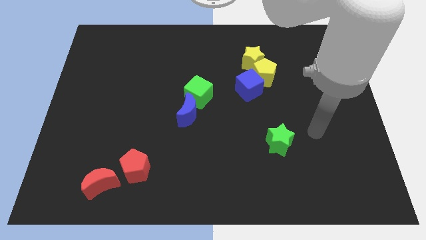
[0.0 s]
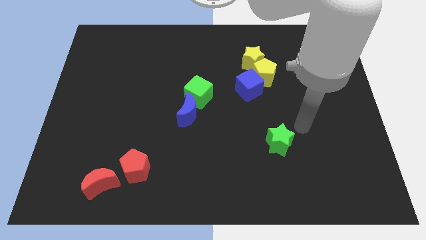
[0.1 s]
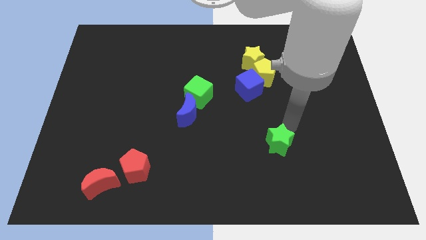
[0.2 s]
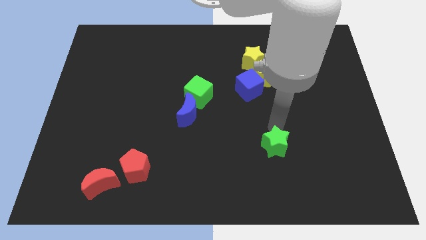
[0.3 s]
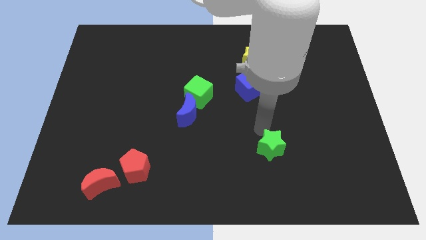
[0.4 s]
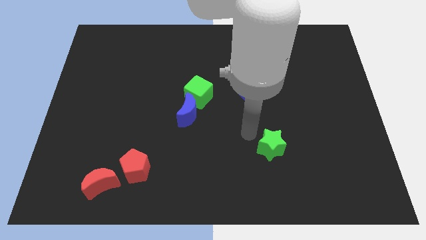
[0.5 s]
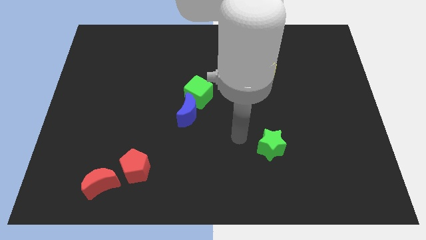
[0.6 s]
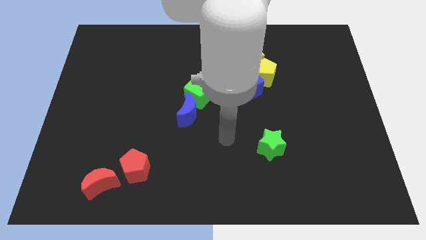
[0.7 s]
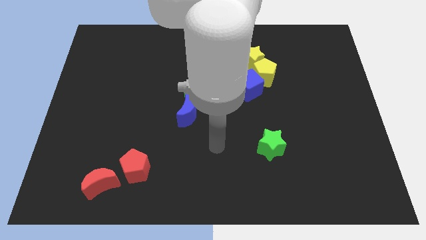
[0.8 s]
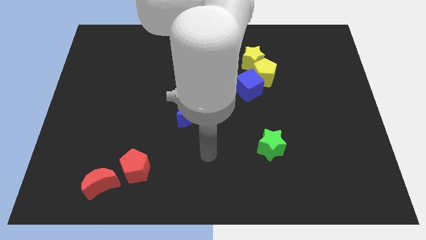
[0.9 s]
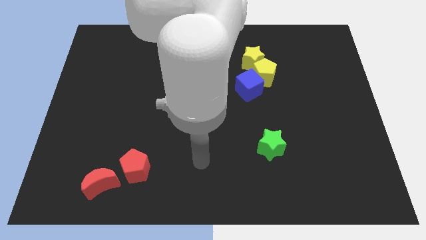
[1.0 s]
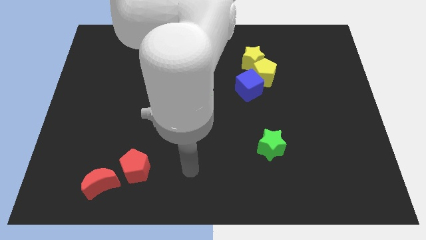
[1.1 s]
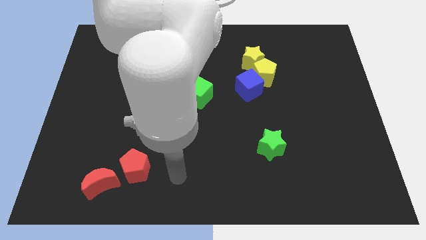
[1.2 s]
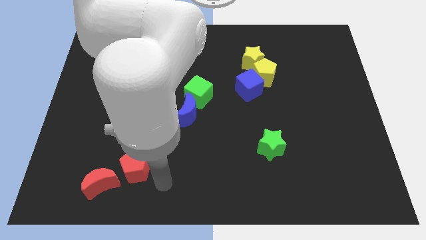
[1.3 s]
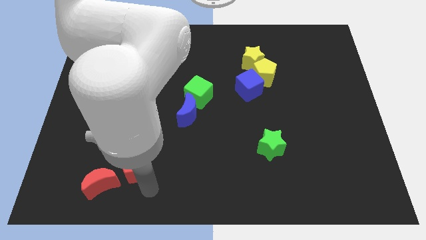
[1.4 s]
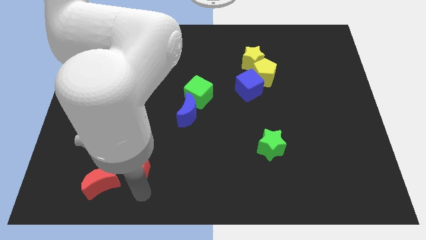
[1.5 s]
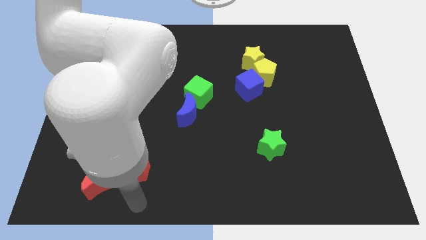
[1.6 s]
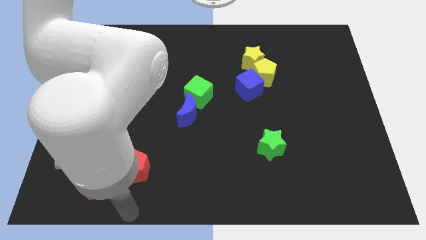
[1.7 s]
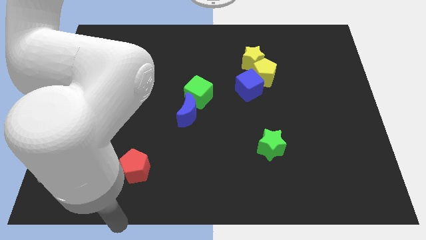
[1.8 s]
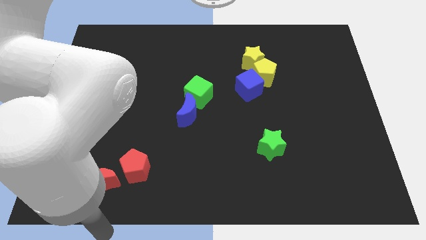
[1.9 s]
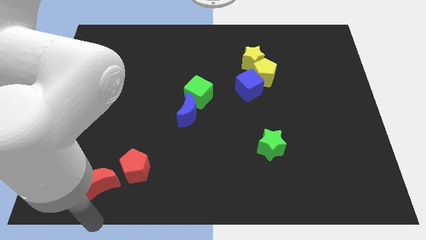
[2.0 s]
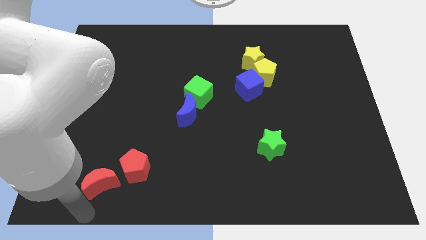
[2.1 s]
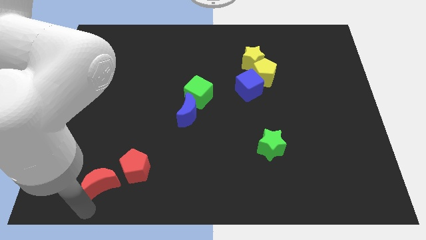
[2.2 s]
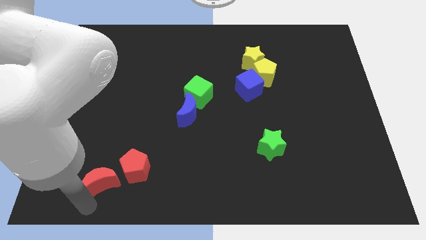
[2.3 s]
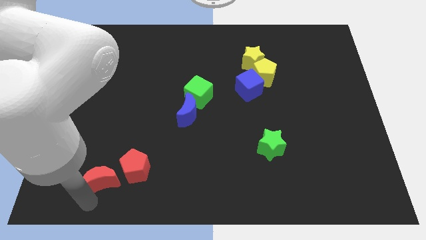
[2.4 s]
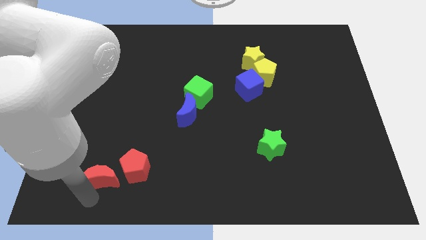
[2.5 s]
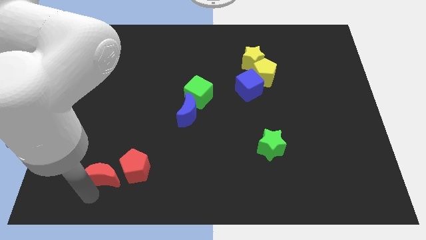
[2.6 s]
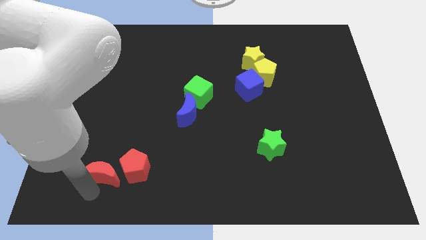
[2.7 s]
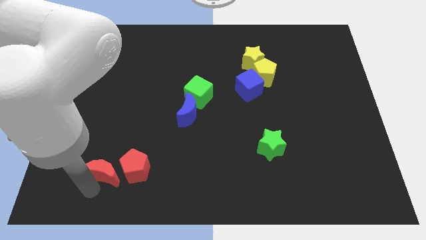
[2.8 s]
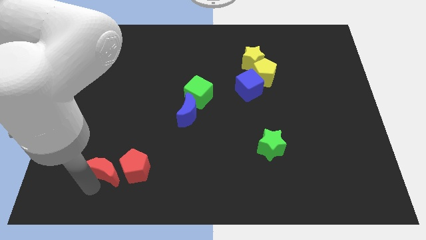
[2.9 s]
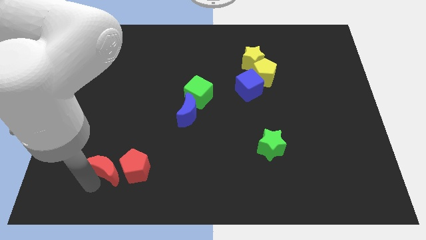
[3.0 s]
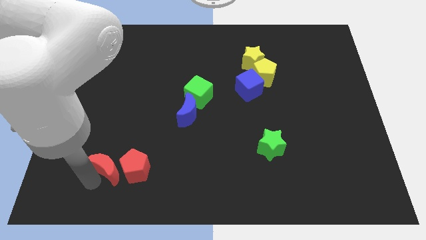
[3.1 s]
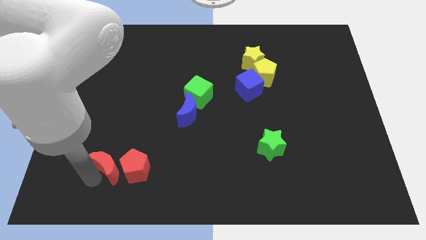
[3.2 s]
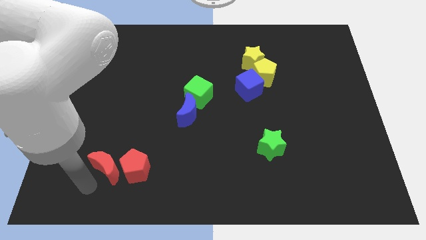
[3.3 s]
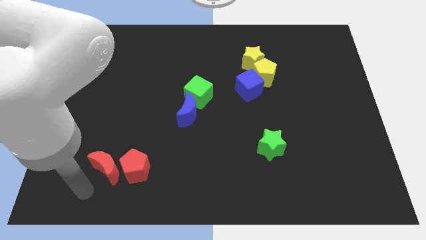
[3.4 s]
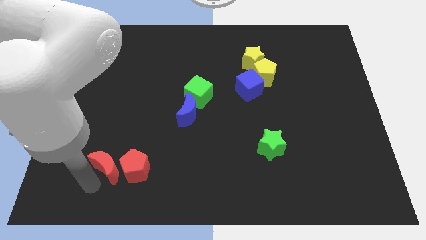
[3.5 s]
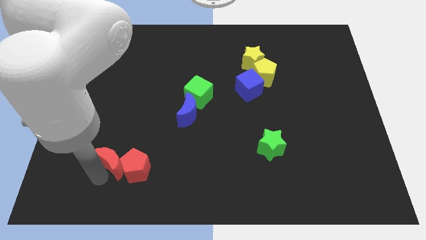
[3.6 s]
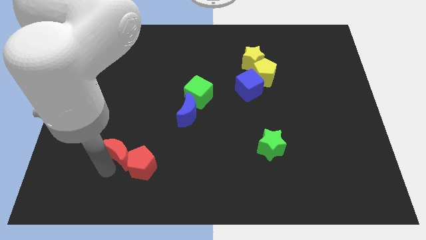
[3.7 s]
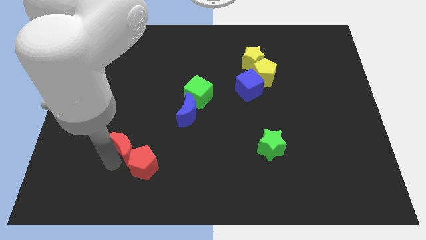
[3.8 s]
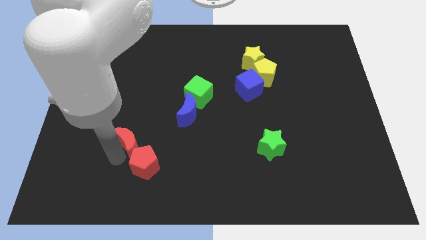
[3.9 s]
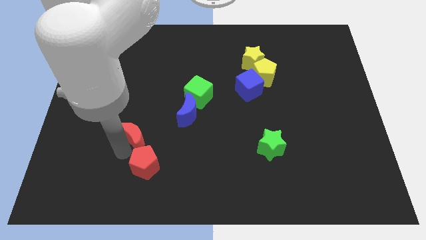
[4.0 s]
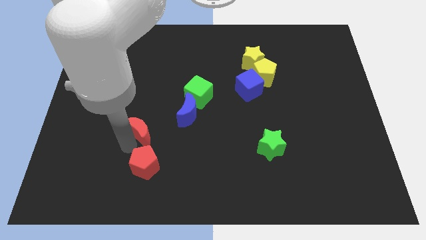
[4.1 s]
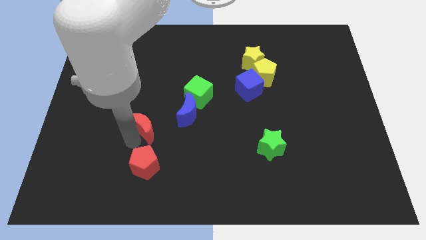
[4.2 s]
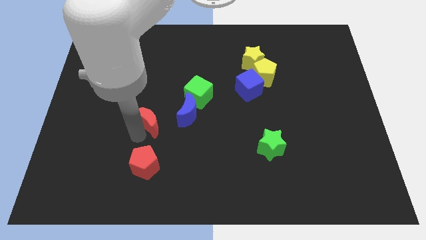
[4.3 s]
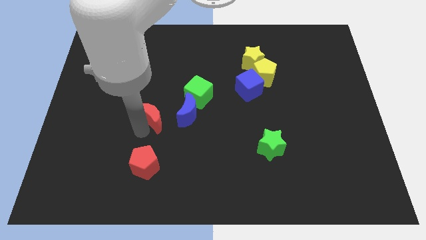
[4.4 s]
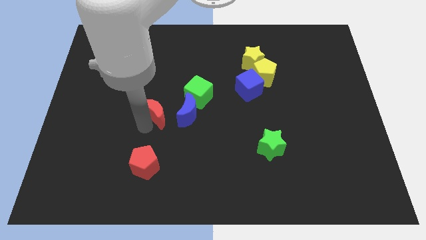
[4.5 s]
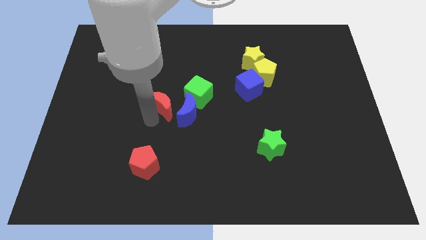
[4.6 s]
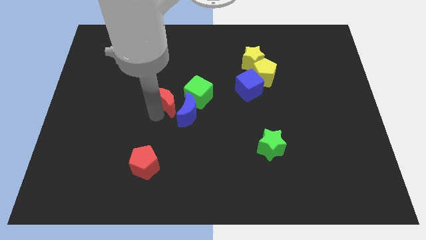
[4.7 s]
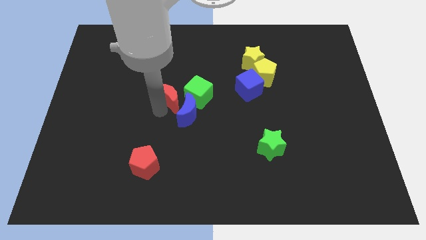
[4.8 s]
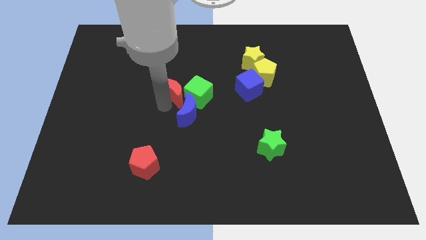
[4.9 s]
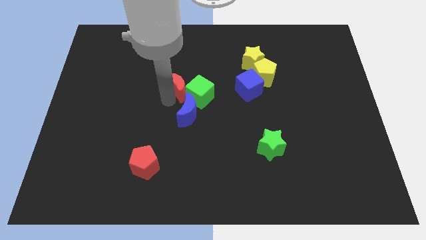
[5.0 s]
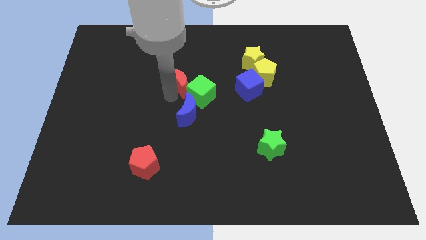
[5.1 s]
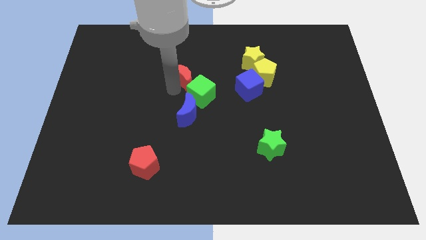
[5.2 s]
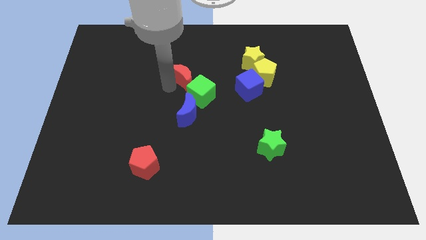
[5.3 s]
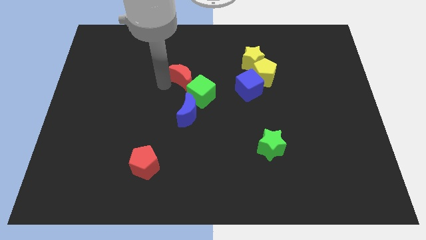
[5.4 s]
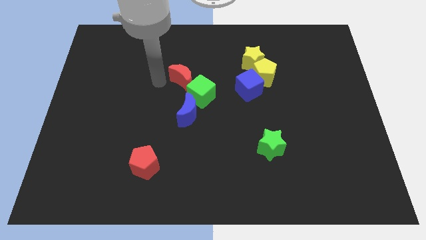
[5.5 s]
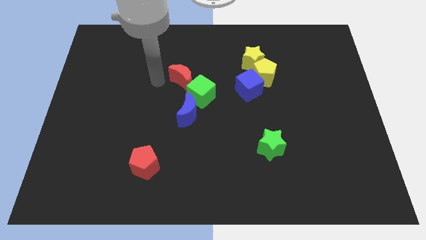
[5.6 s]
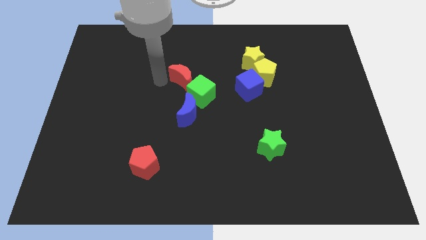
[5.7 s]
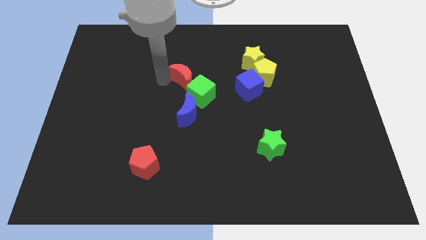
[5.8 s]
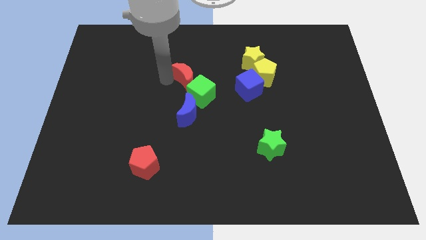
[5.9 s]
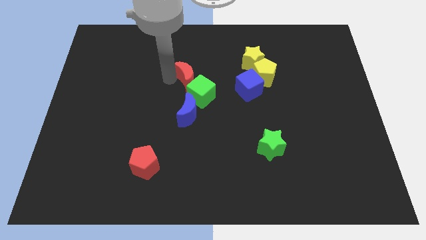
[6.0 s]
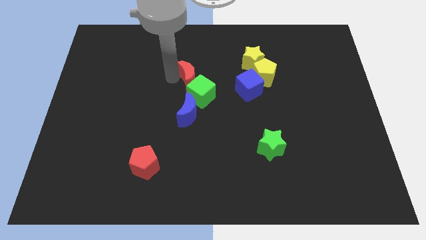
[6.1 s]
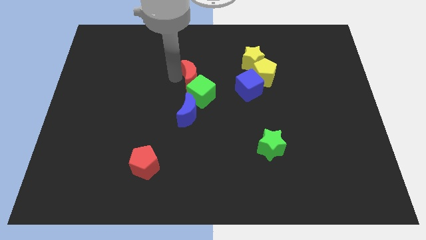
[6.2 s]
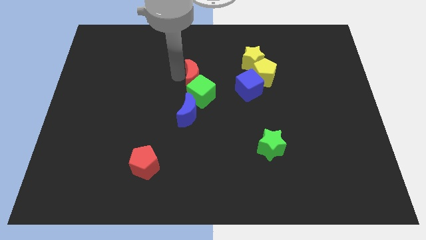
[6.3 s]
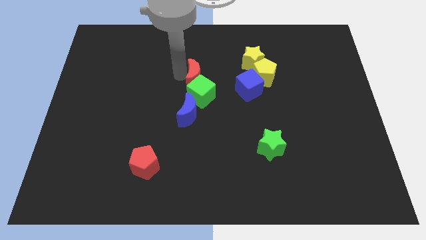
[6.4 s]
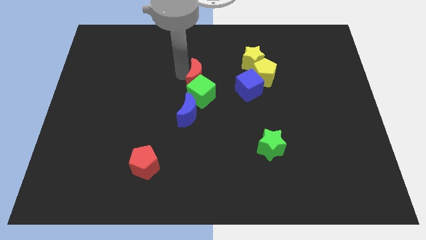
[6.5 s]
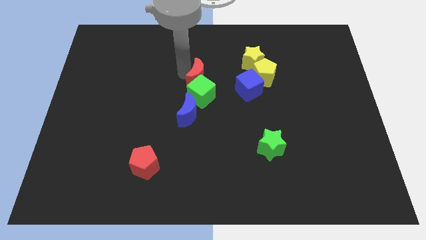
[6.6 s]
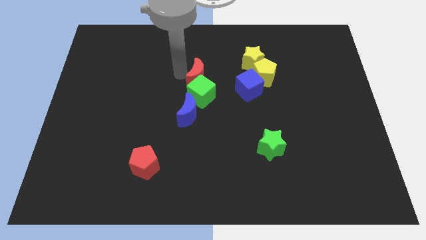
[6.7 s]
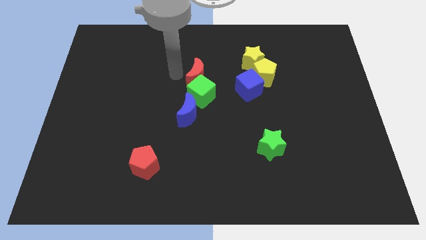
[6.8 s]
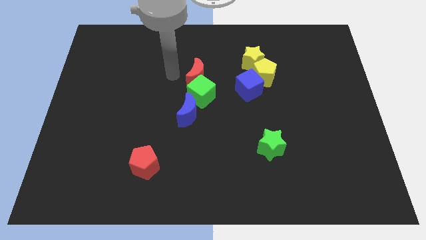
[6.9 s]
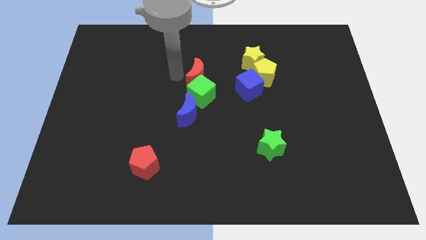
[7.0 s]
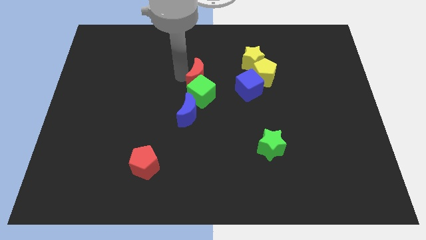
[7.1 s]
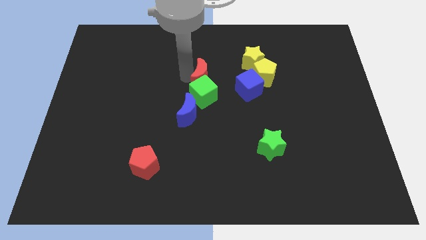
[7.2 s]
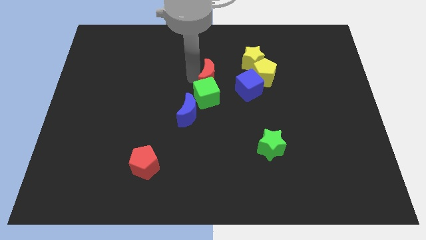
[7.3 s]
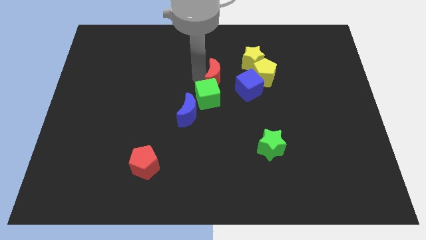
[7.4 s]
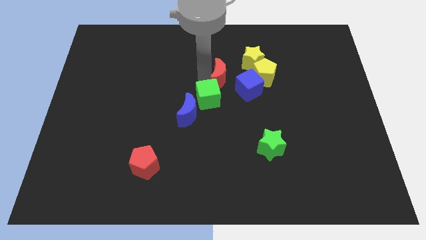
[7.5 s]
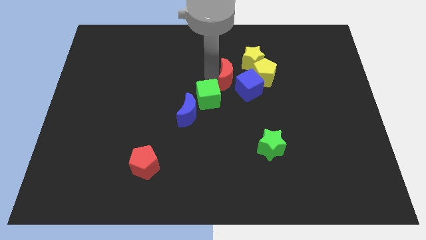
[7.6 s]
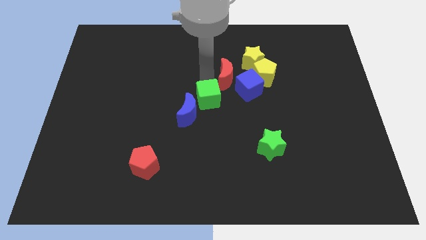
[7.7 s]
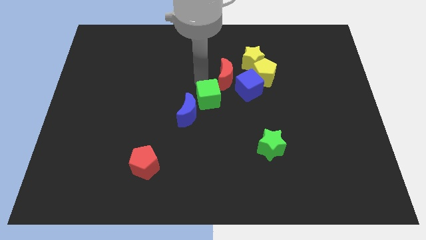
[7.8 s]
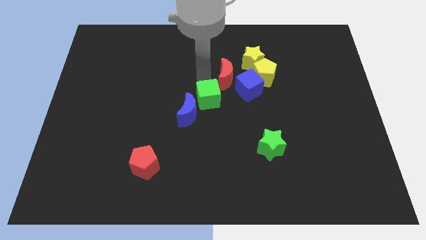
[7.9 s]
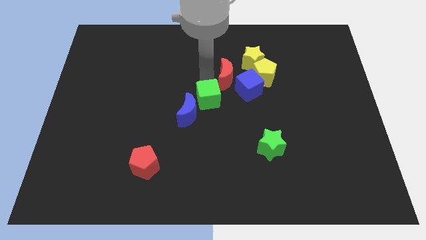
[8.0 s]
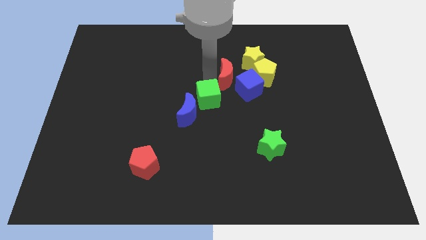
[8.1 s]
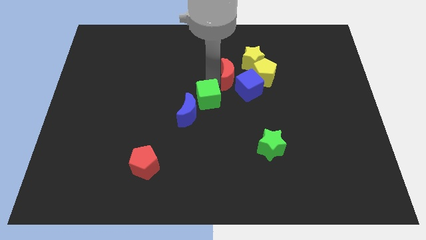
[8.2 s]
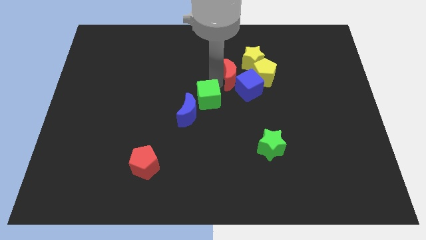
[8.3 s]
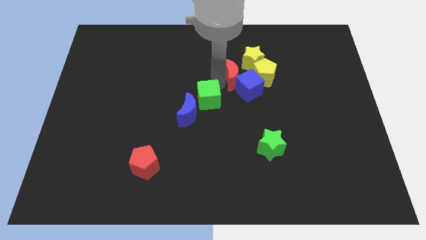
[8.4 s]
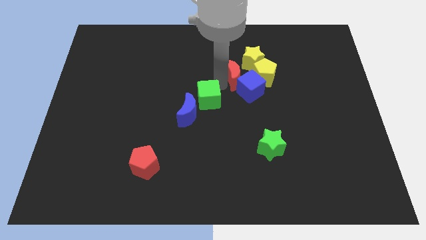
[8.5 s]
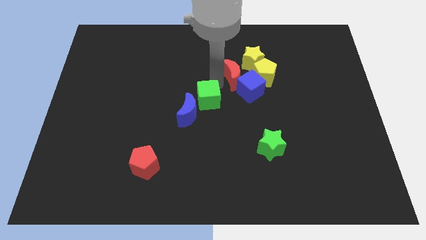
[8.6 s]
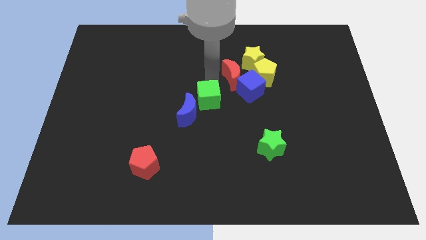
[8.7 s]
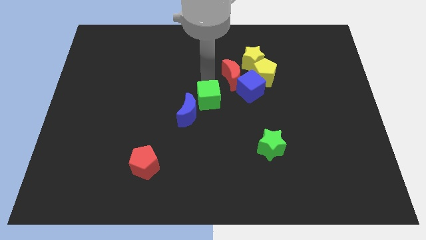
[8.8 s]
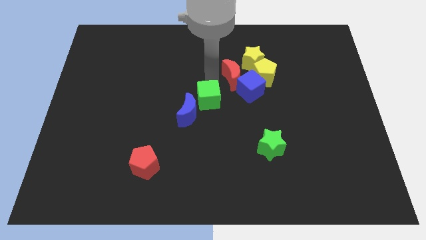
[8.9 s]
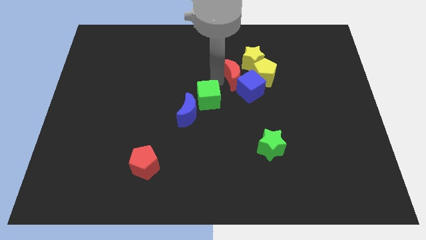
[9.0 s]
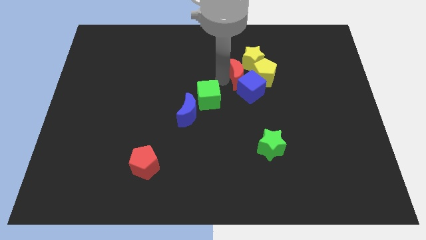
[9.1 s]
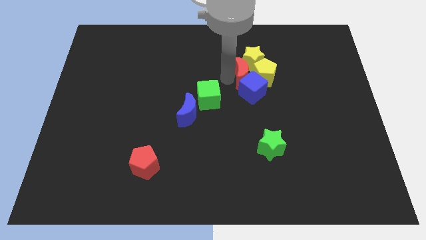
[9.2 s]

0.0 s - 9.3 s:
push the red moon next to the yellow pentagon
